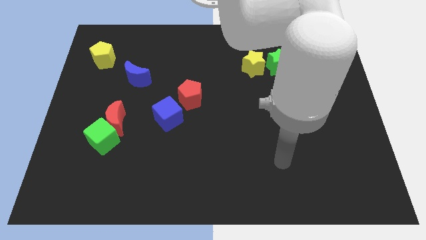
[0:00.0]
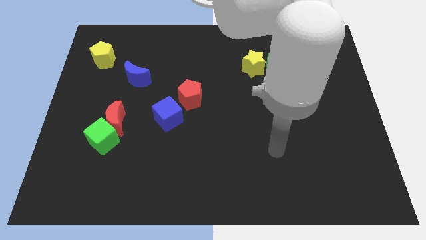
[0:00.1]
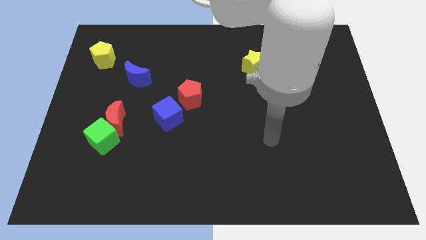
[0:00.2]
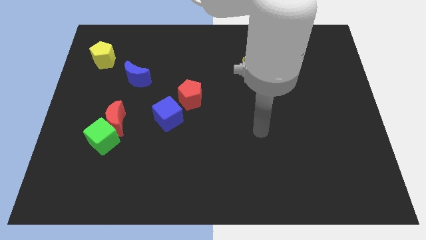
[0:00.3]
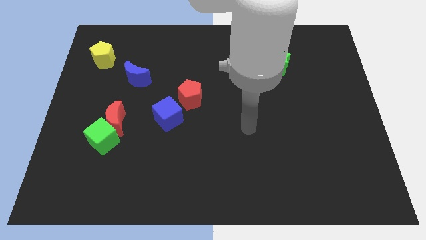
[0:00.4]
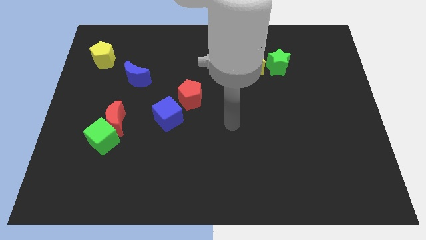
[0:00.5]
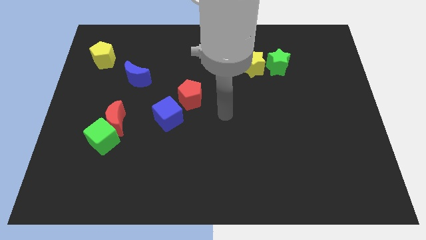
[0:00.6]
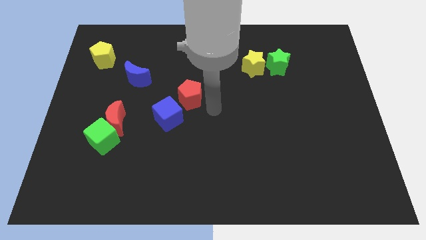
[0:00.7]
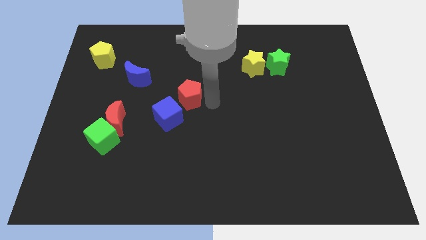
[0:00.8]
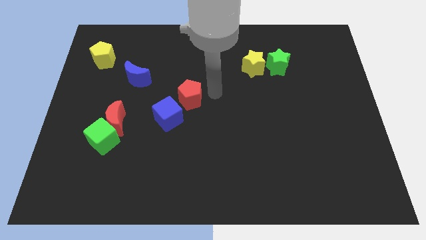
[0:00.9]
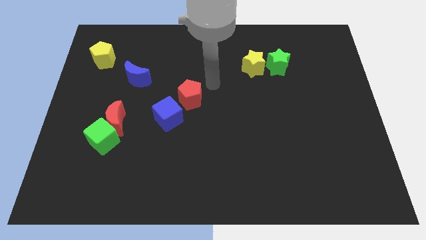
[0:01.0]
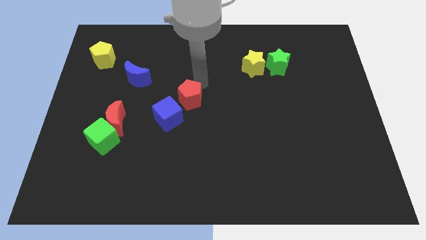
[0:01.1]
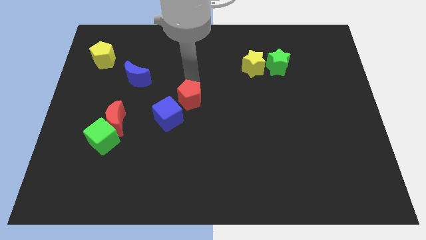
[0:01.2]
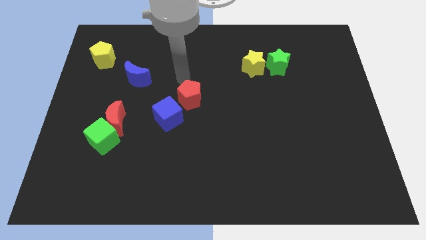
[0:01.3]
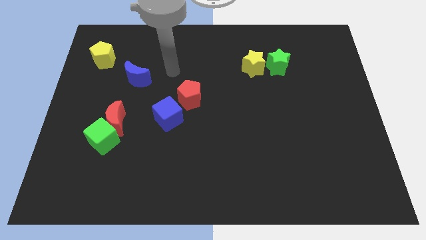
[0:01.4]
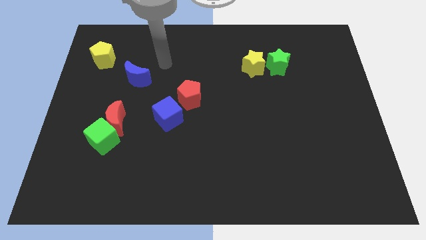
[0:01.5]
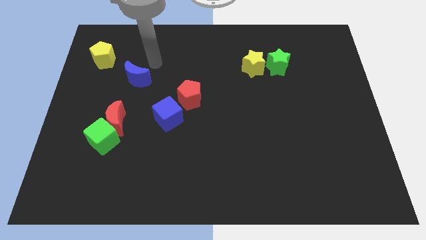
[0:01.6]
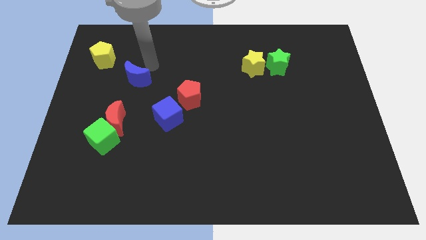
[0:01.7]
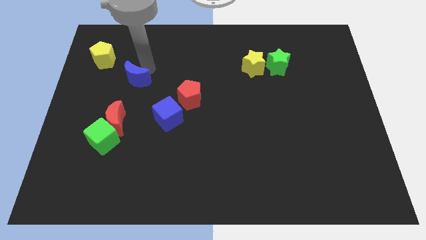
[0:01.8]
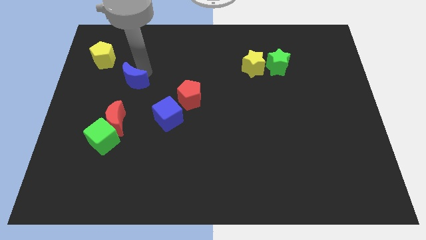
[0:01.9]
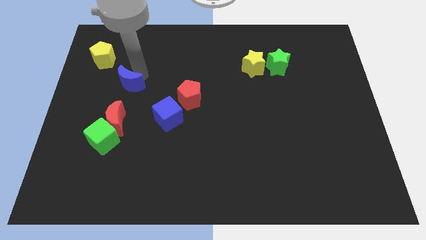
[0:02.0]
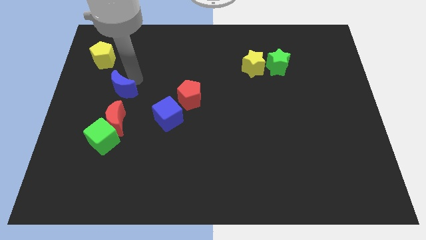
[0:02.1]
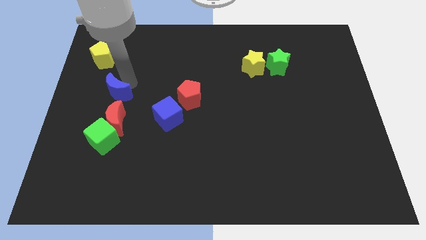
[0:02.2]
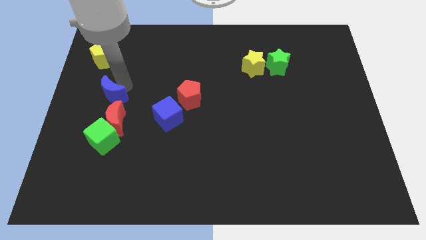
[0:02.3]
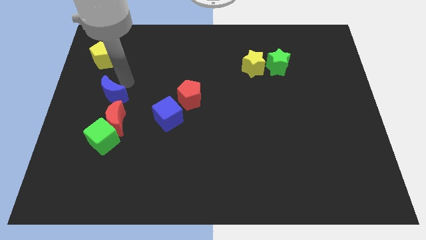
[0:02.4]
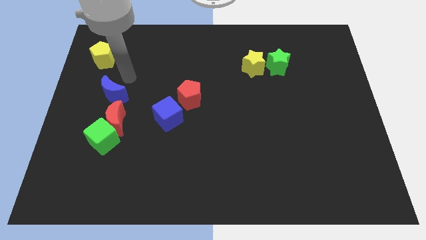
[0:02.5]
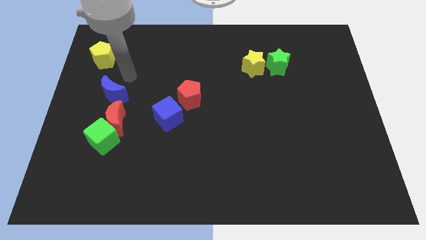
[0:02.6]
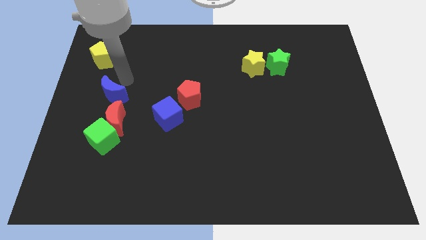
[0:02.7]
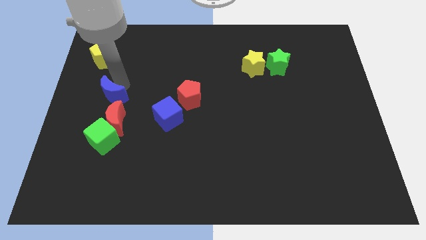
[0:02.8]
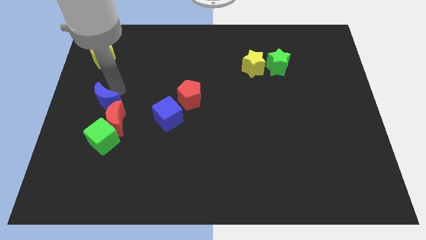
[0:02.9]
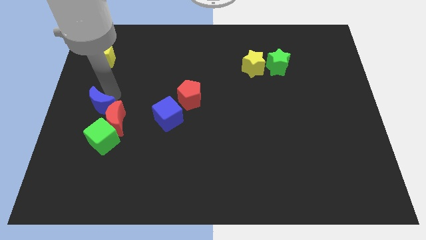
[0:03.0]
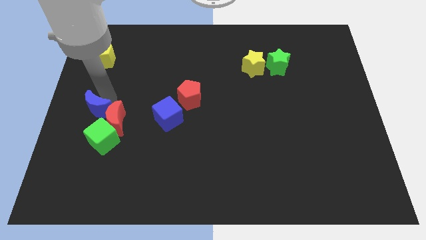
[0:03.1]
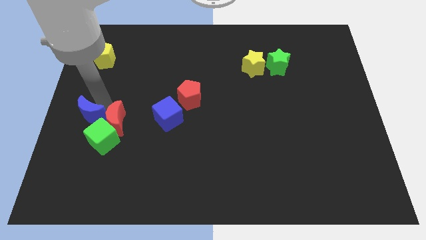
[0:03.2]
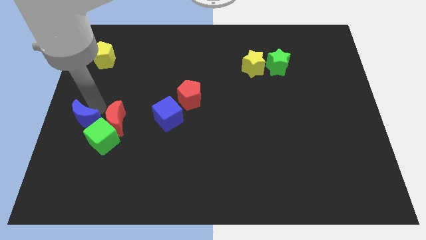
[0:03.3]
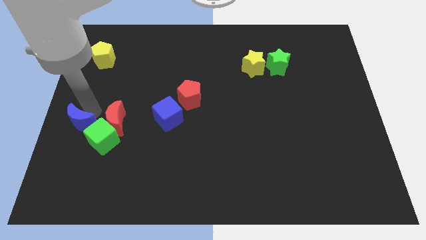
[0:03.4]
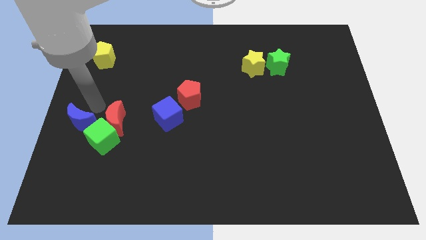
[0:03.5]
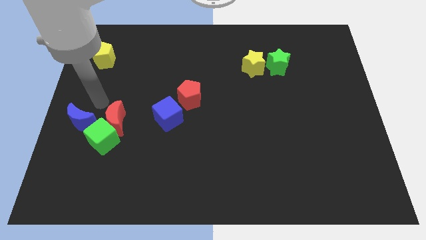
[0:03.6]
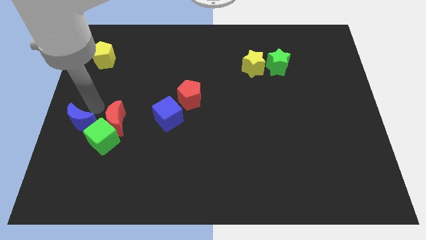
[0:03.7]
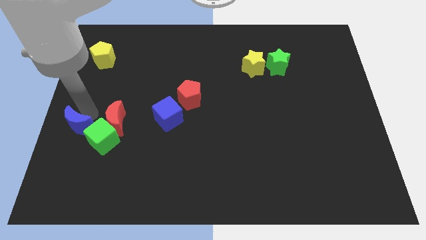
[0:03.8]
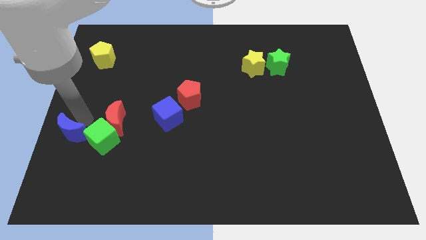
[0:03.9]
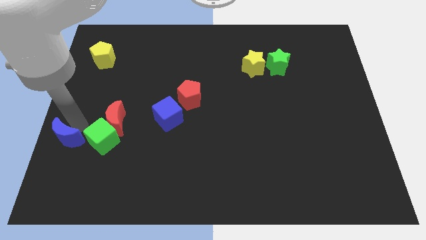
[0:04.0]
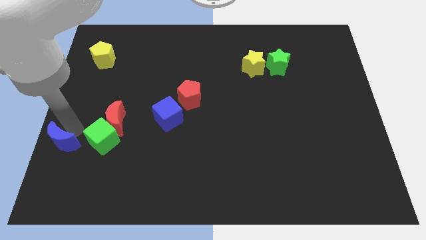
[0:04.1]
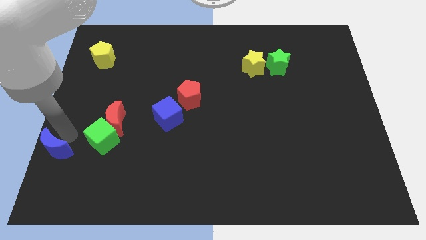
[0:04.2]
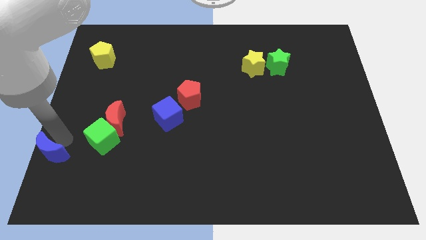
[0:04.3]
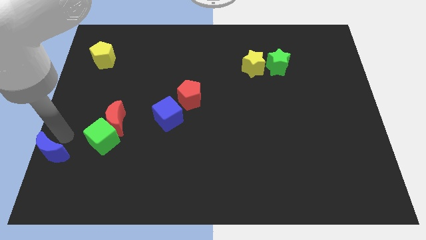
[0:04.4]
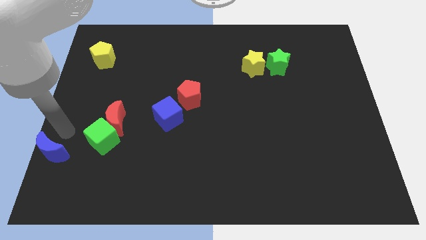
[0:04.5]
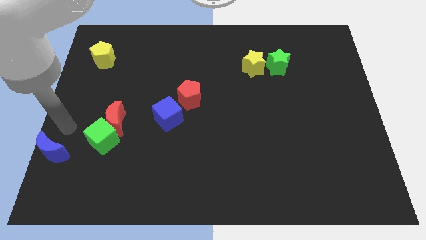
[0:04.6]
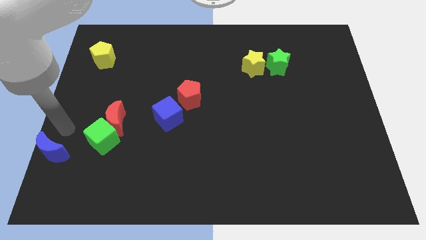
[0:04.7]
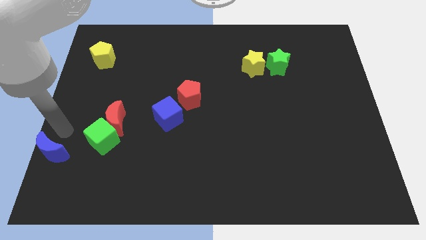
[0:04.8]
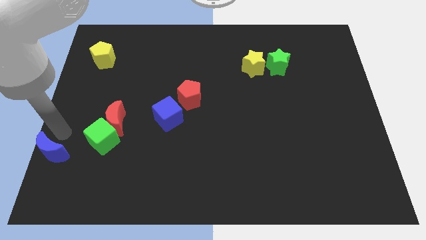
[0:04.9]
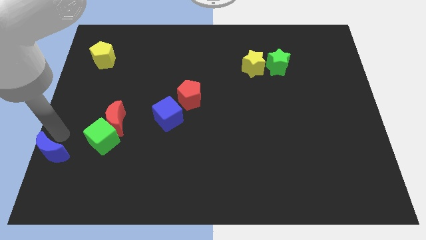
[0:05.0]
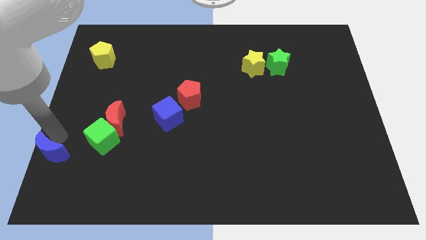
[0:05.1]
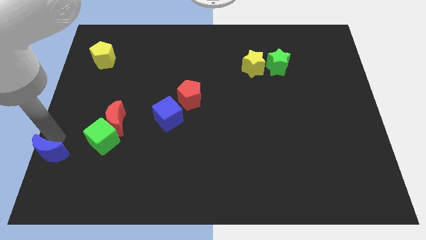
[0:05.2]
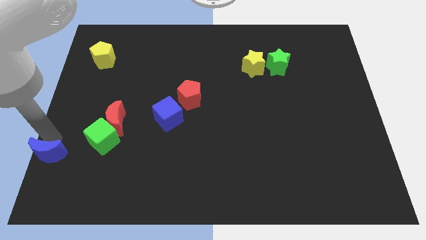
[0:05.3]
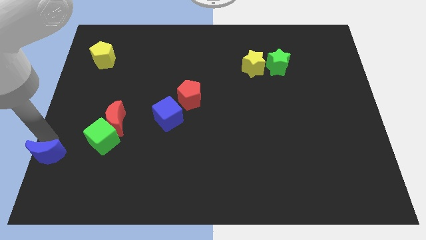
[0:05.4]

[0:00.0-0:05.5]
slide the blue moon to the lower left corner
